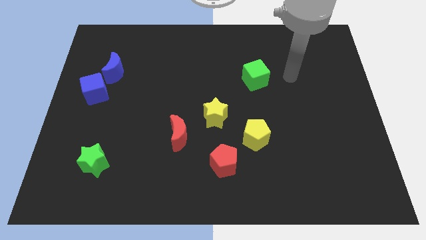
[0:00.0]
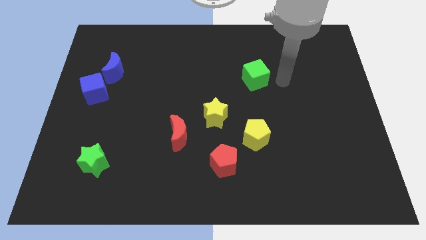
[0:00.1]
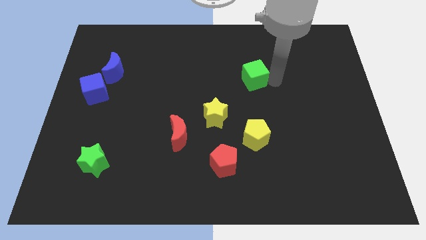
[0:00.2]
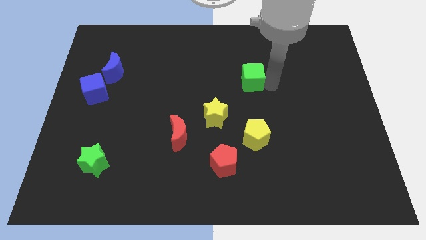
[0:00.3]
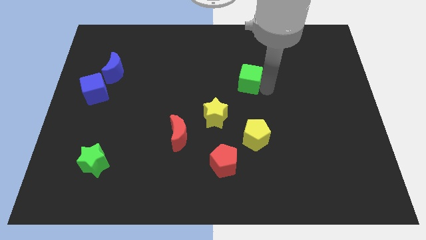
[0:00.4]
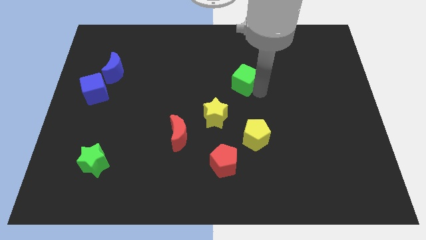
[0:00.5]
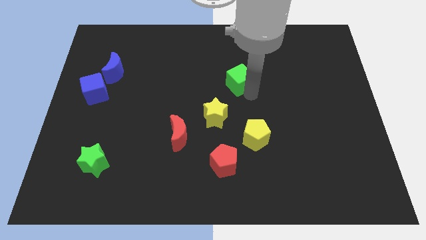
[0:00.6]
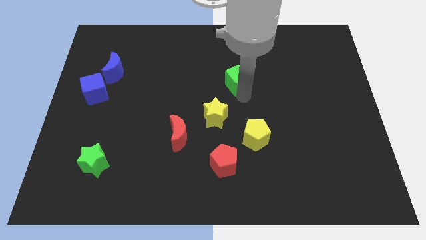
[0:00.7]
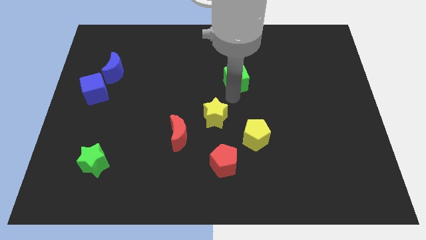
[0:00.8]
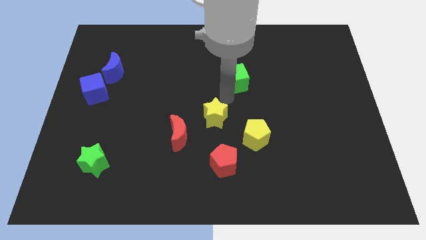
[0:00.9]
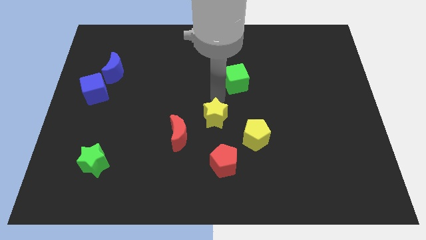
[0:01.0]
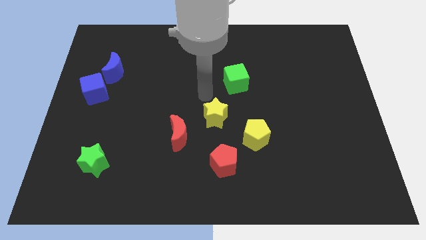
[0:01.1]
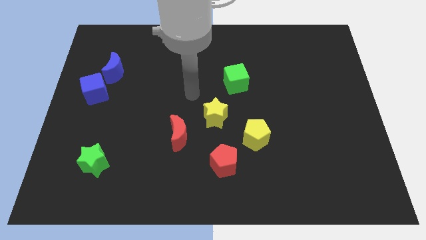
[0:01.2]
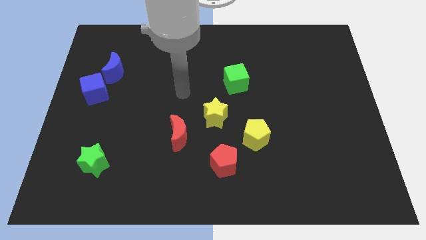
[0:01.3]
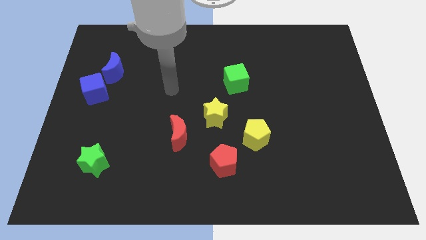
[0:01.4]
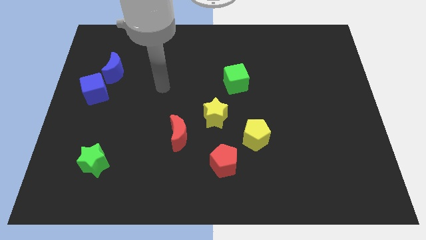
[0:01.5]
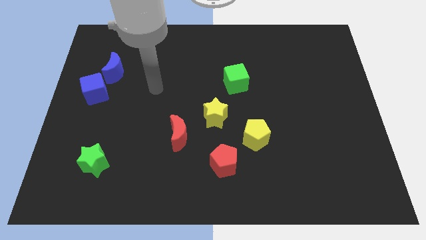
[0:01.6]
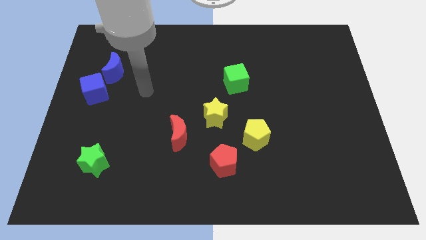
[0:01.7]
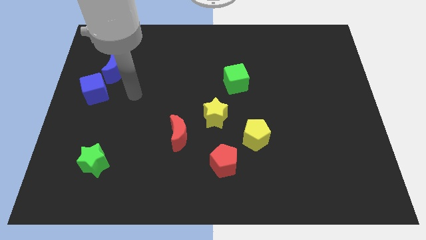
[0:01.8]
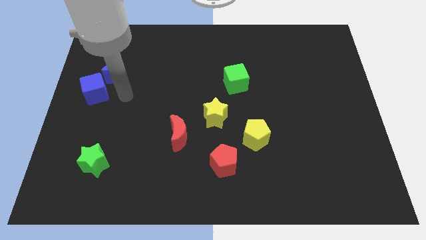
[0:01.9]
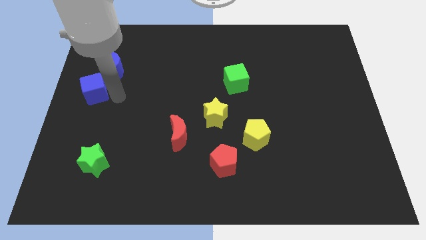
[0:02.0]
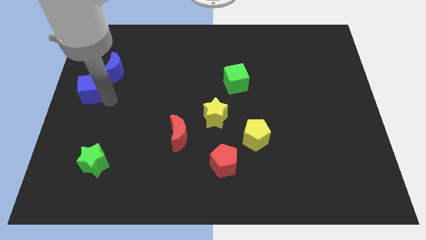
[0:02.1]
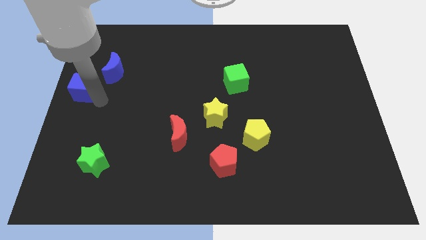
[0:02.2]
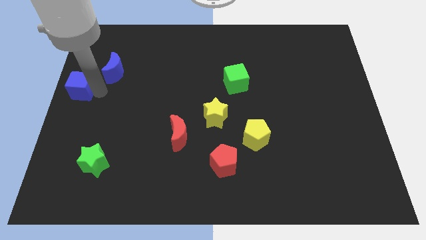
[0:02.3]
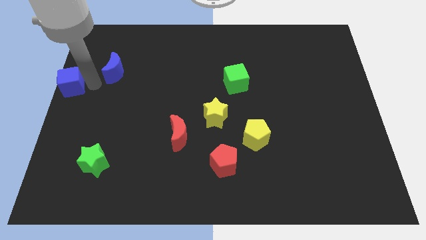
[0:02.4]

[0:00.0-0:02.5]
separate the blue moon from the blue cube

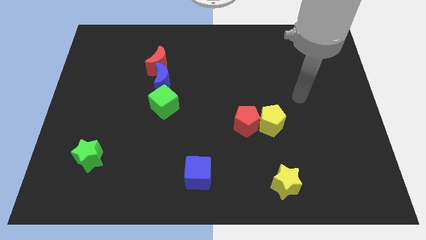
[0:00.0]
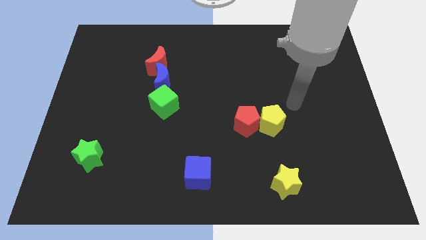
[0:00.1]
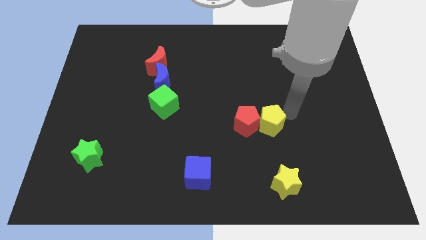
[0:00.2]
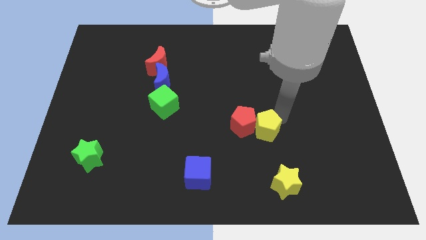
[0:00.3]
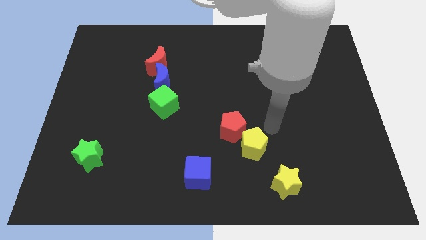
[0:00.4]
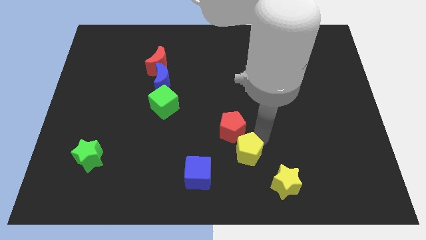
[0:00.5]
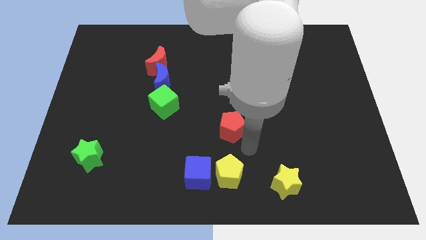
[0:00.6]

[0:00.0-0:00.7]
move the red pentagon away from the yellow pentagon

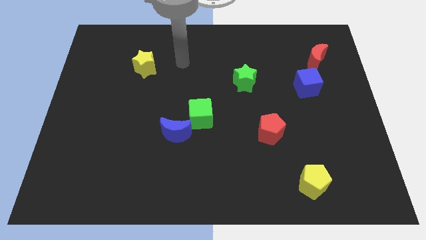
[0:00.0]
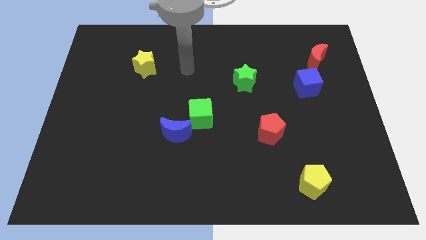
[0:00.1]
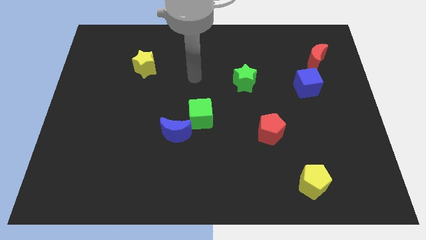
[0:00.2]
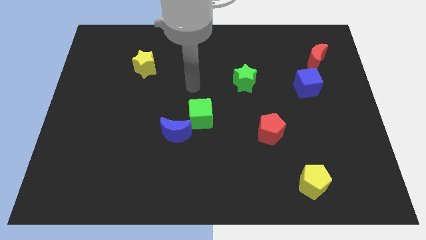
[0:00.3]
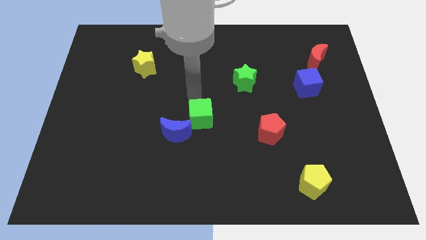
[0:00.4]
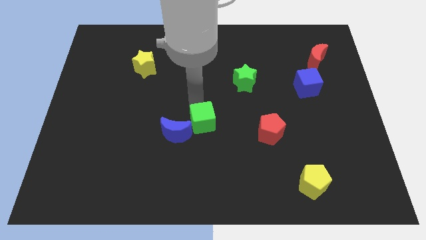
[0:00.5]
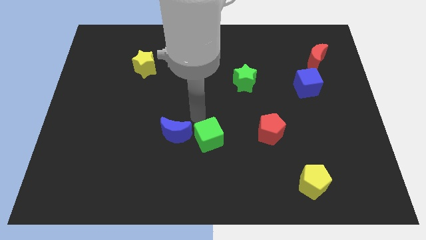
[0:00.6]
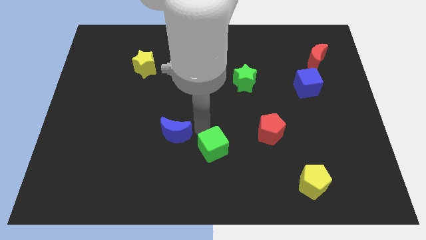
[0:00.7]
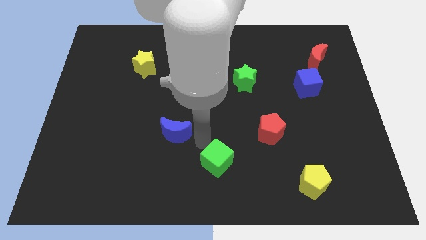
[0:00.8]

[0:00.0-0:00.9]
pull the blue moon apart from the green cube

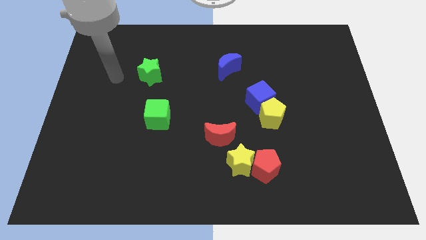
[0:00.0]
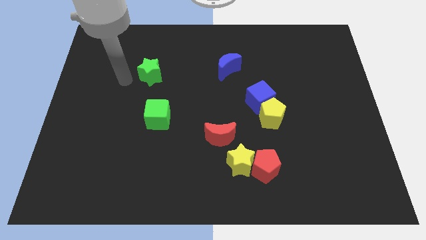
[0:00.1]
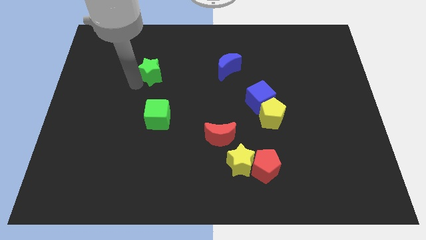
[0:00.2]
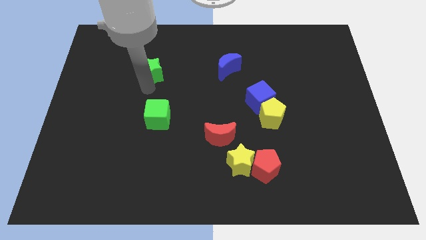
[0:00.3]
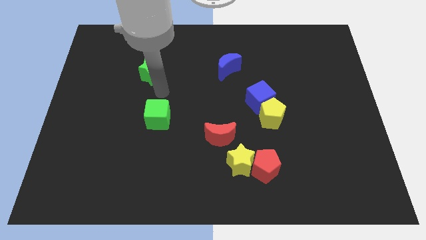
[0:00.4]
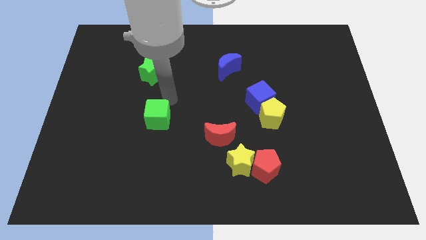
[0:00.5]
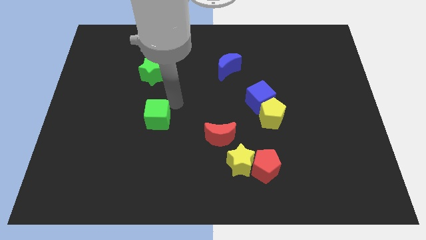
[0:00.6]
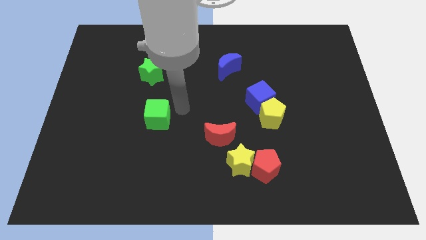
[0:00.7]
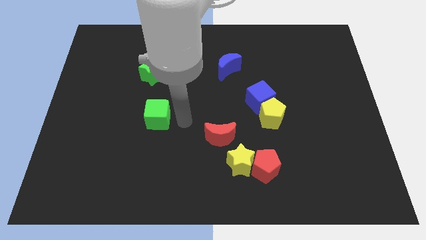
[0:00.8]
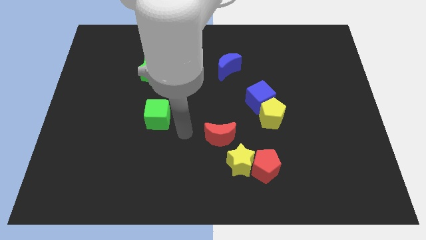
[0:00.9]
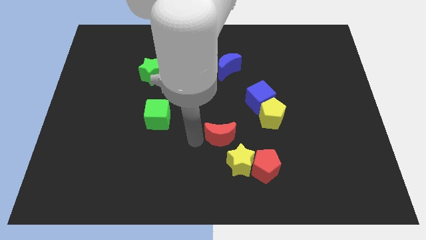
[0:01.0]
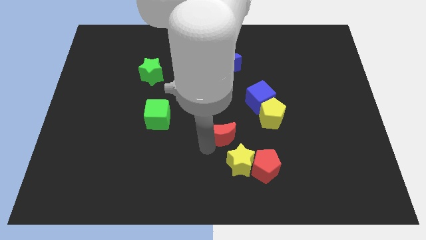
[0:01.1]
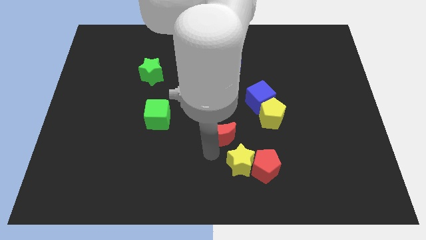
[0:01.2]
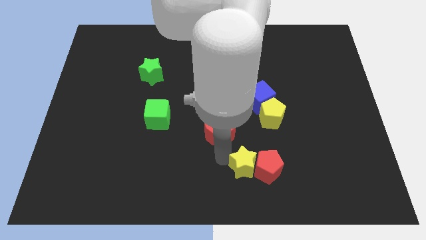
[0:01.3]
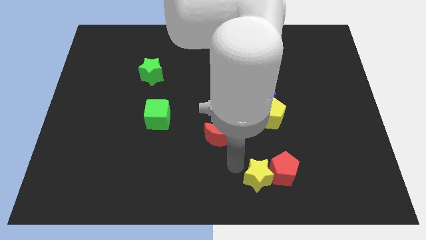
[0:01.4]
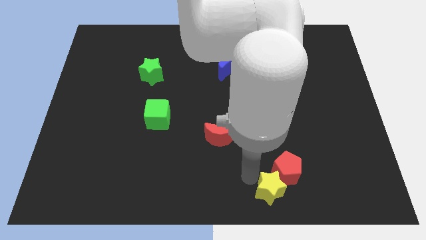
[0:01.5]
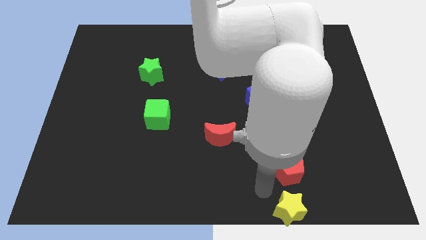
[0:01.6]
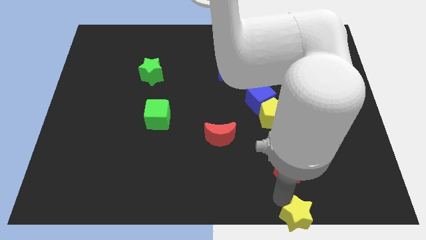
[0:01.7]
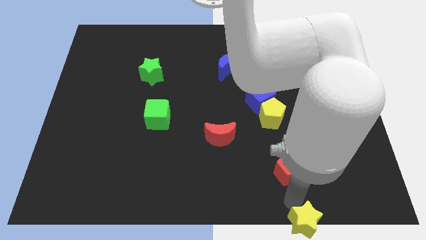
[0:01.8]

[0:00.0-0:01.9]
pull the red pentagon apart from the yellow star

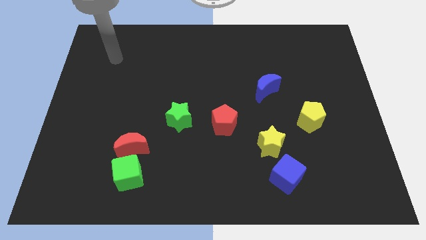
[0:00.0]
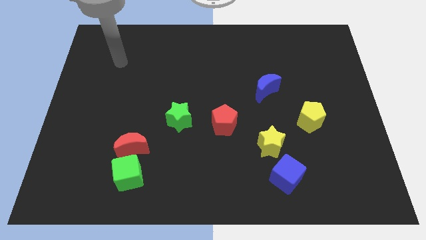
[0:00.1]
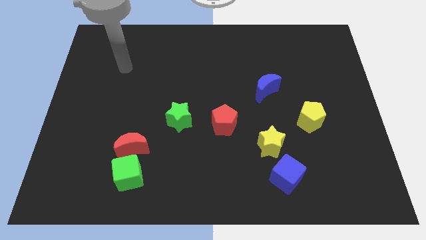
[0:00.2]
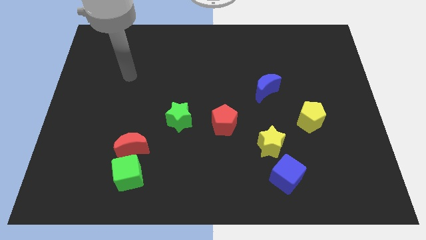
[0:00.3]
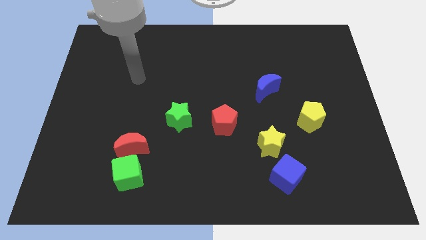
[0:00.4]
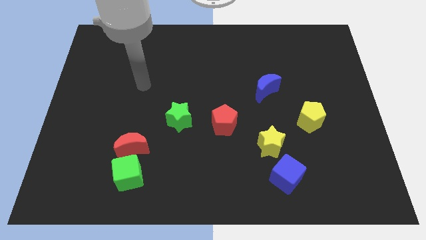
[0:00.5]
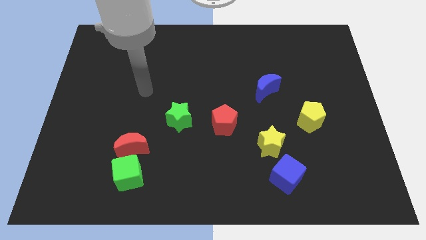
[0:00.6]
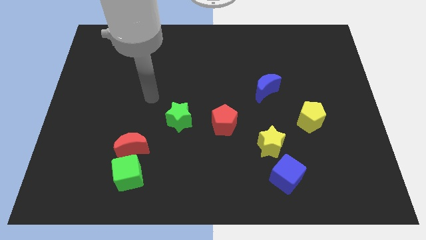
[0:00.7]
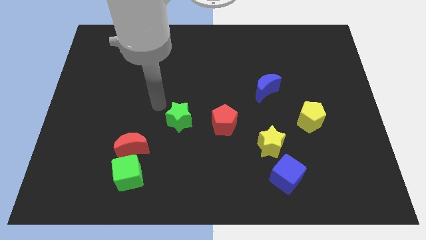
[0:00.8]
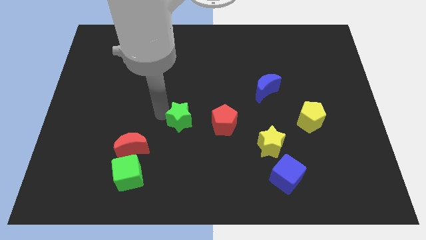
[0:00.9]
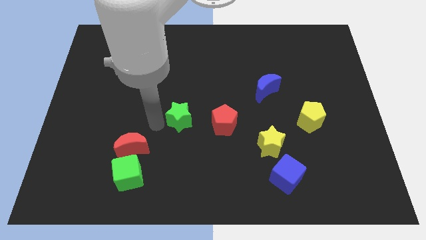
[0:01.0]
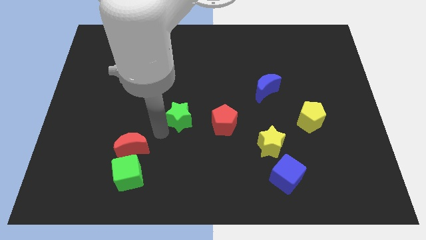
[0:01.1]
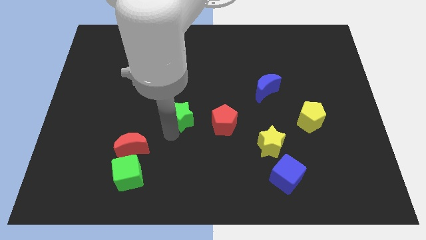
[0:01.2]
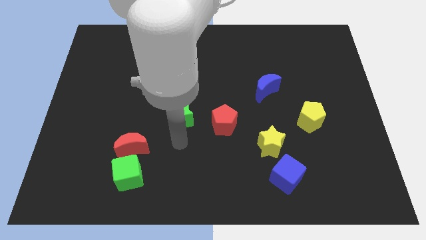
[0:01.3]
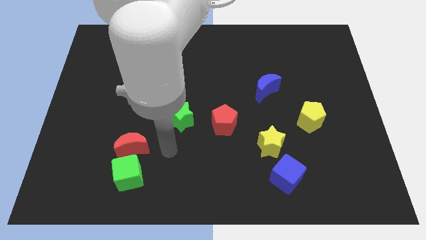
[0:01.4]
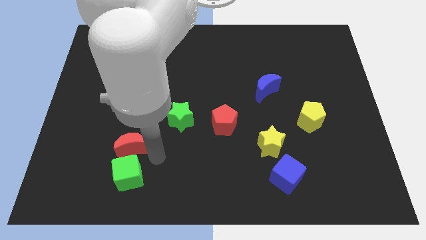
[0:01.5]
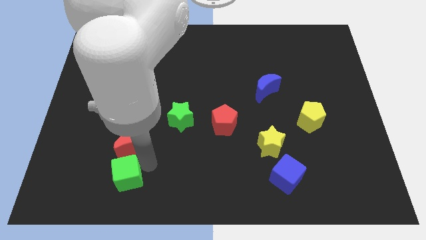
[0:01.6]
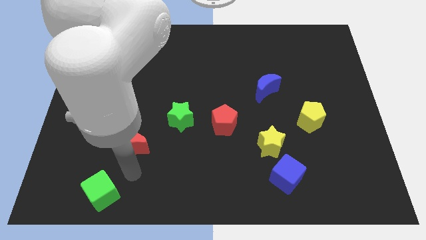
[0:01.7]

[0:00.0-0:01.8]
pull the red moon apart from the green cube

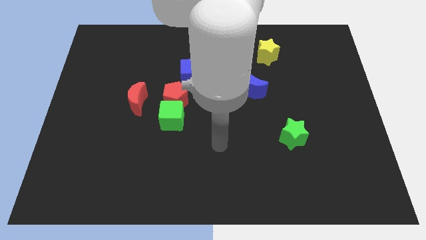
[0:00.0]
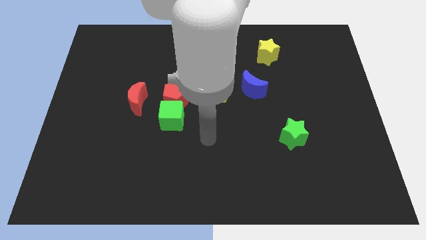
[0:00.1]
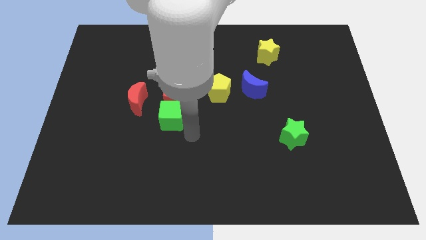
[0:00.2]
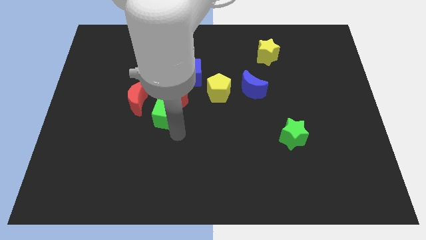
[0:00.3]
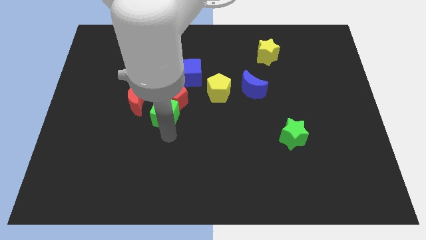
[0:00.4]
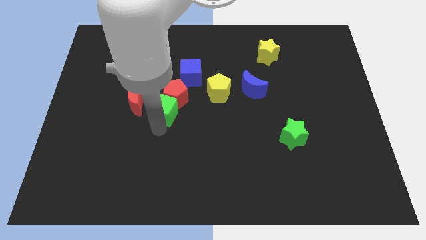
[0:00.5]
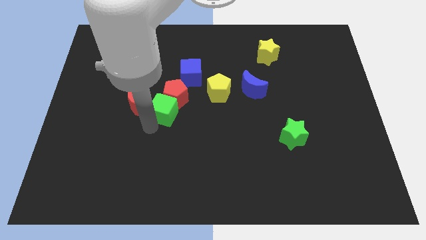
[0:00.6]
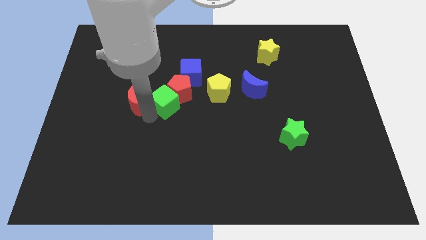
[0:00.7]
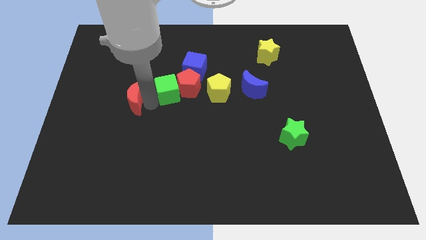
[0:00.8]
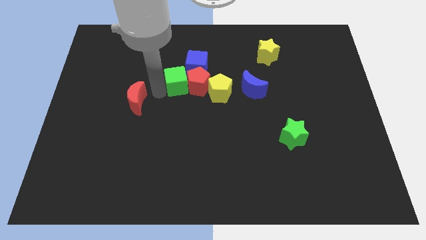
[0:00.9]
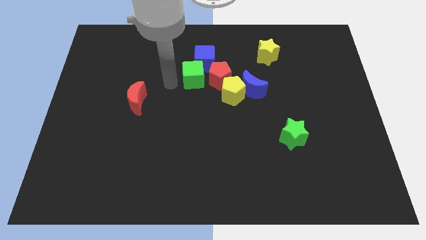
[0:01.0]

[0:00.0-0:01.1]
pull the red pentagon apart from the green cube, blue cube, and red moon

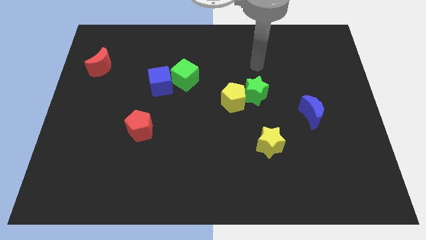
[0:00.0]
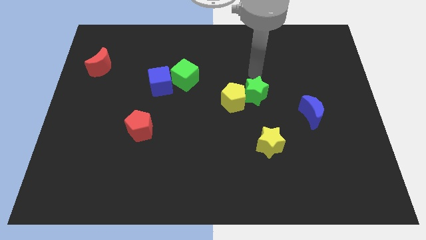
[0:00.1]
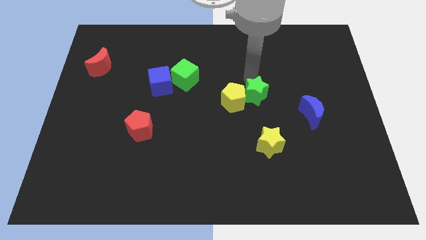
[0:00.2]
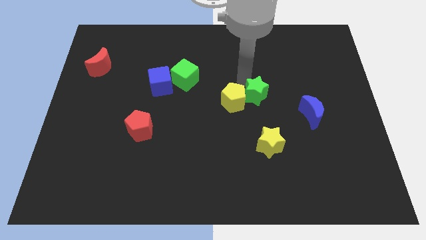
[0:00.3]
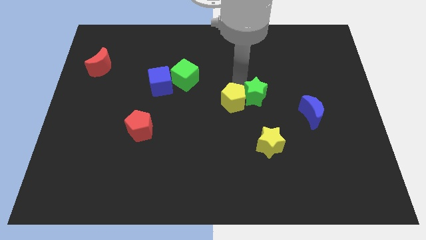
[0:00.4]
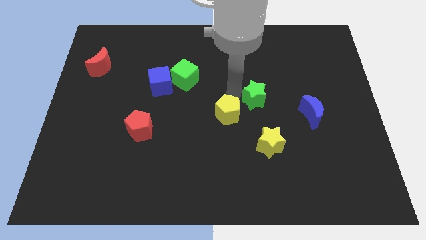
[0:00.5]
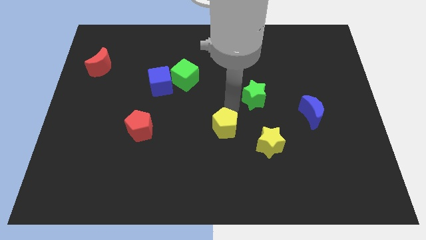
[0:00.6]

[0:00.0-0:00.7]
separate the green star from the yellow pentagon
